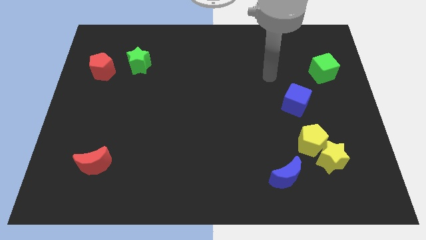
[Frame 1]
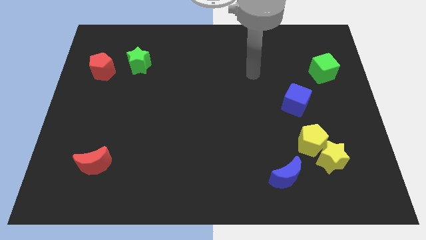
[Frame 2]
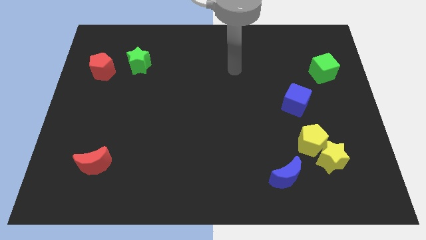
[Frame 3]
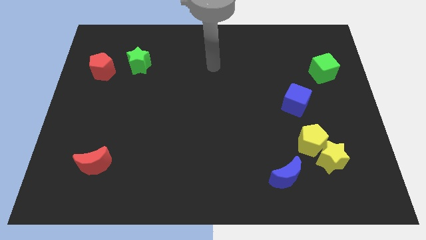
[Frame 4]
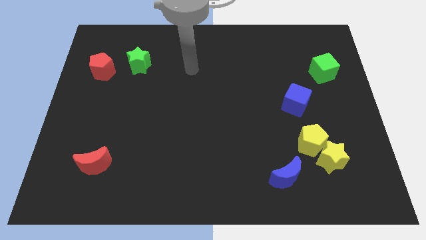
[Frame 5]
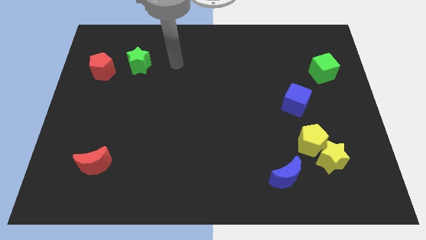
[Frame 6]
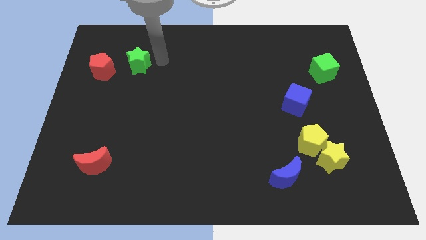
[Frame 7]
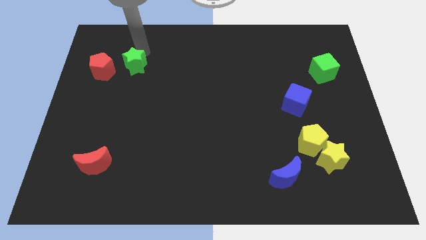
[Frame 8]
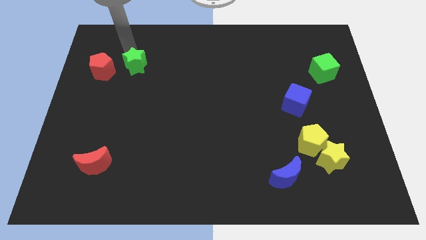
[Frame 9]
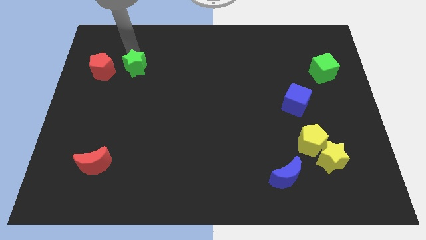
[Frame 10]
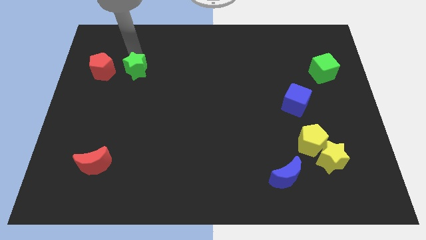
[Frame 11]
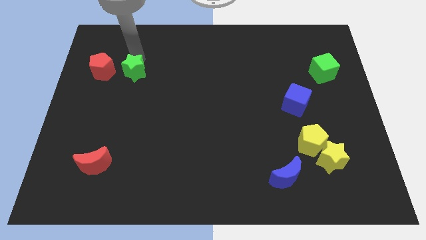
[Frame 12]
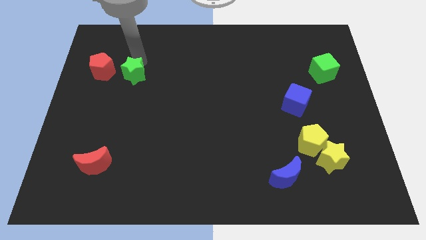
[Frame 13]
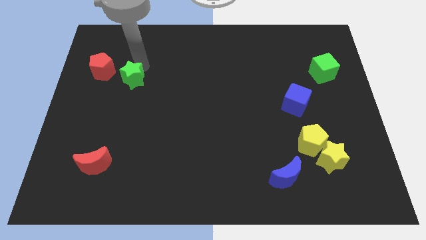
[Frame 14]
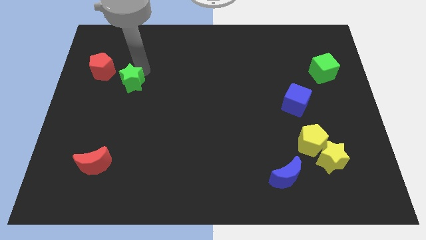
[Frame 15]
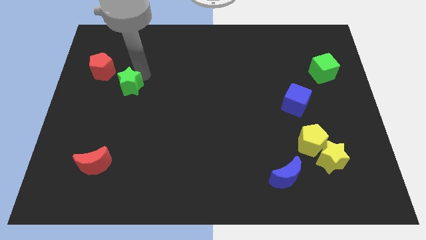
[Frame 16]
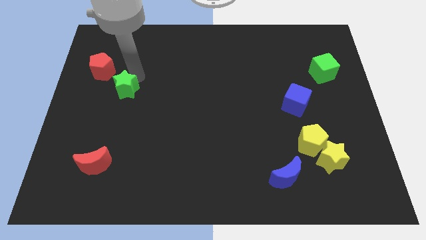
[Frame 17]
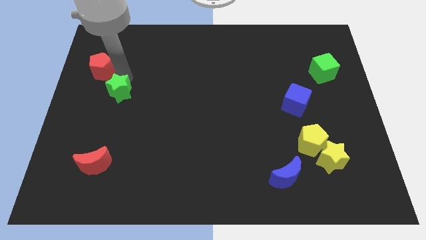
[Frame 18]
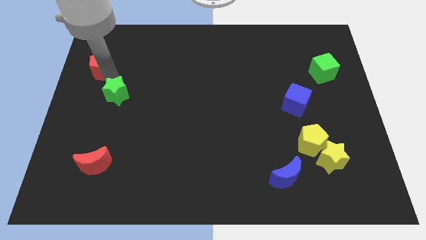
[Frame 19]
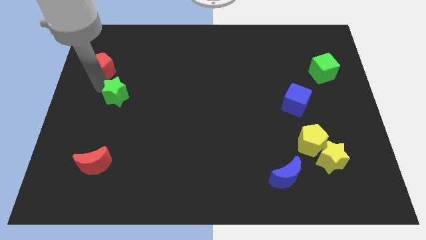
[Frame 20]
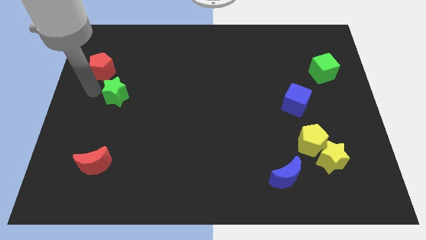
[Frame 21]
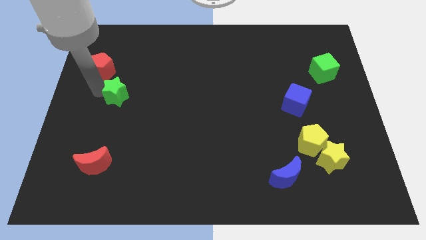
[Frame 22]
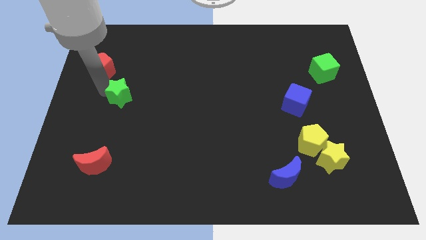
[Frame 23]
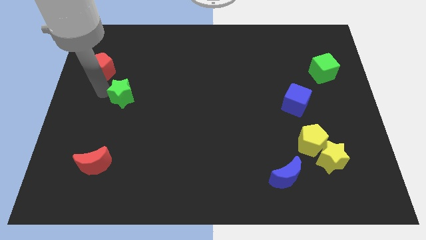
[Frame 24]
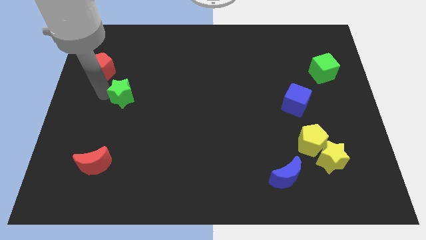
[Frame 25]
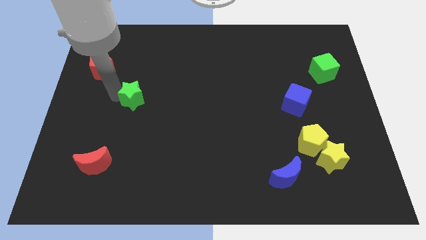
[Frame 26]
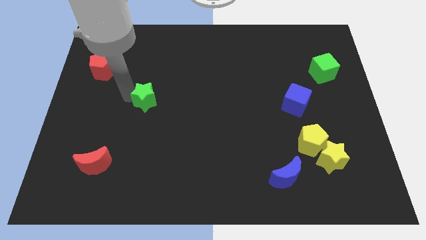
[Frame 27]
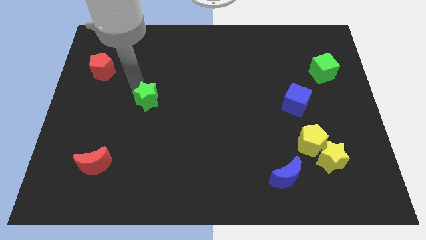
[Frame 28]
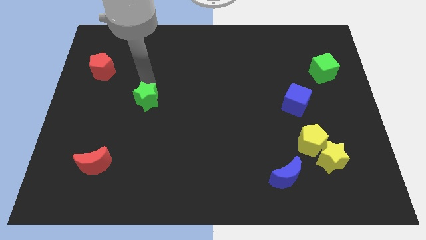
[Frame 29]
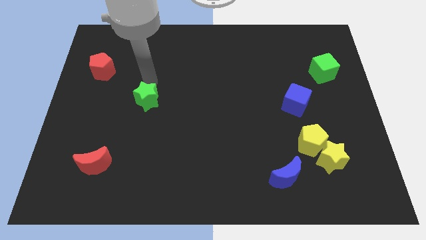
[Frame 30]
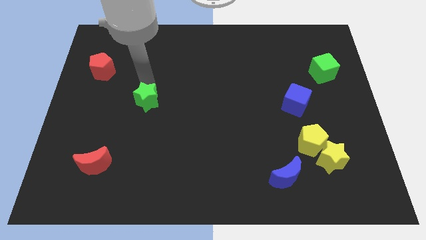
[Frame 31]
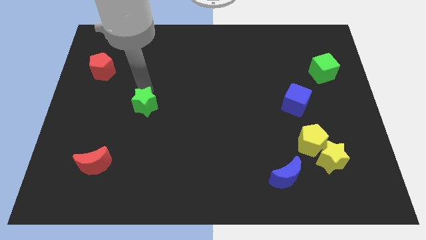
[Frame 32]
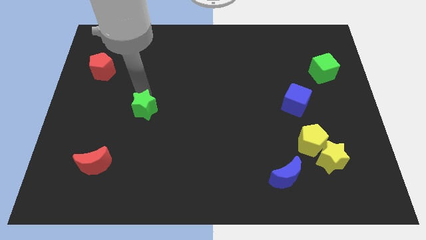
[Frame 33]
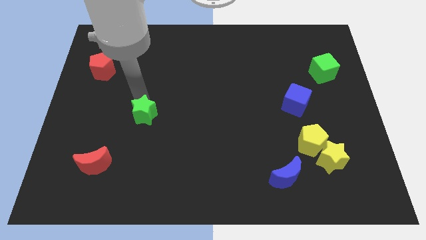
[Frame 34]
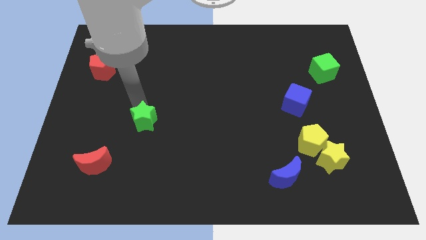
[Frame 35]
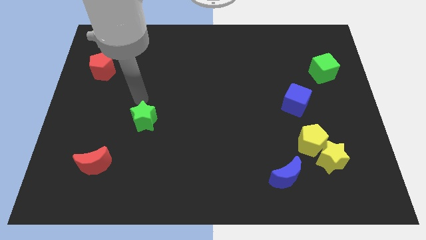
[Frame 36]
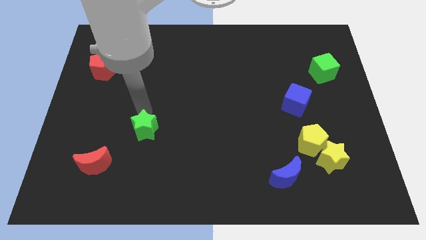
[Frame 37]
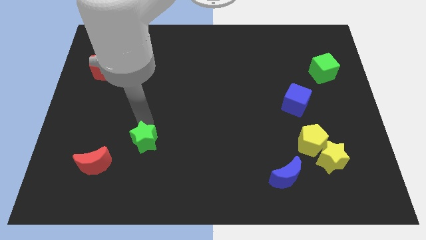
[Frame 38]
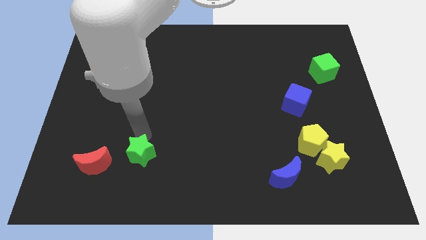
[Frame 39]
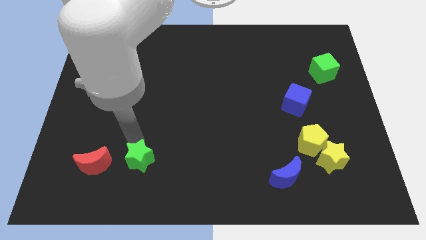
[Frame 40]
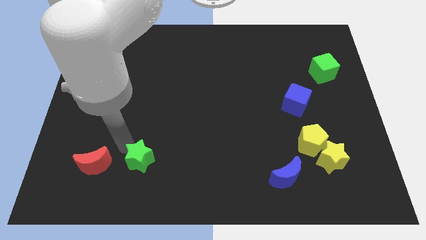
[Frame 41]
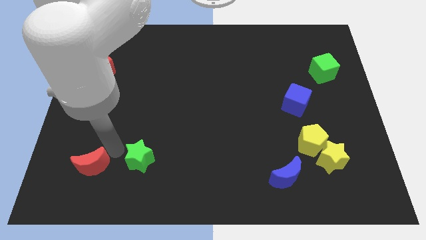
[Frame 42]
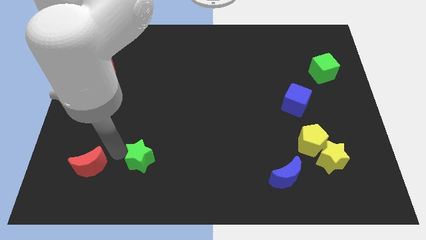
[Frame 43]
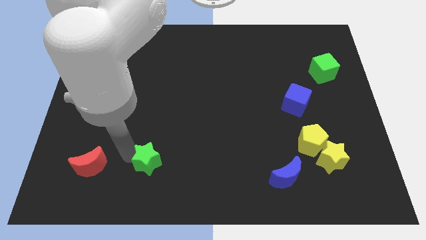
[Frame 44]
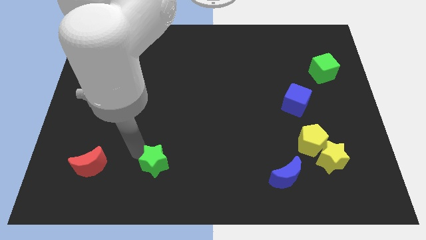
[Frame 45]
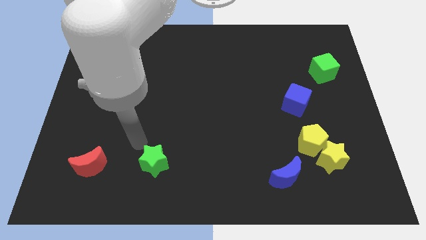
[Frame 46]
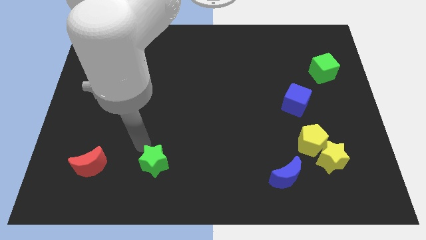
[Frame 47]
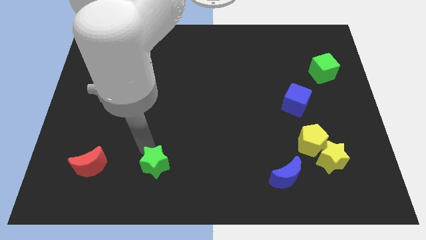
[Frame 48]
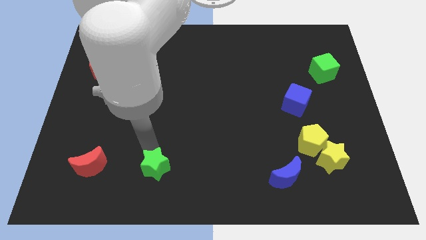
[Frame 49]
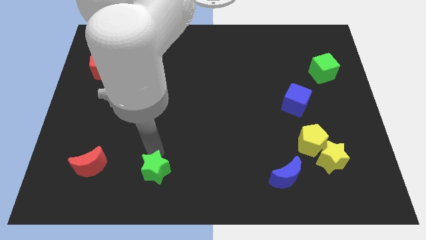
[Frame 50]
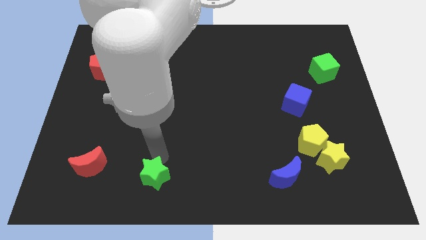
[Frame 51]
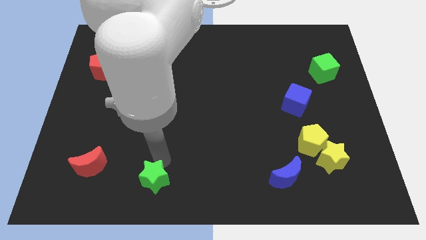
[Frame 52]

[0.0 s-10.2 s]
move the green star to the bottom

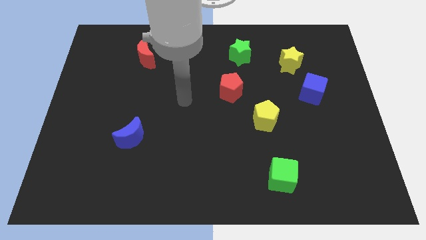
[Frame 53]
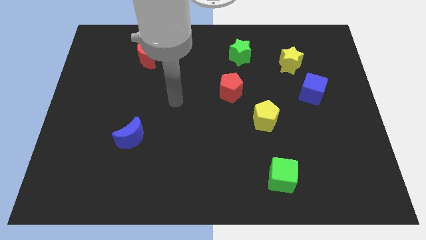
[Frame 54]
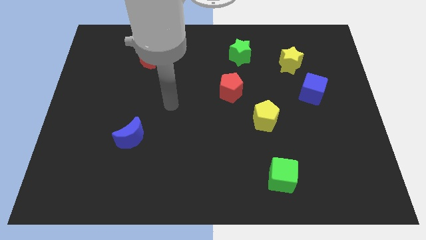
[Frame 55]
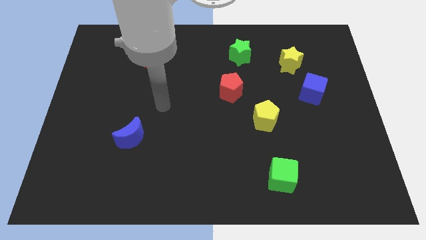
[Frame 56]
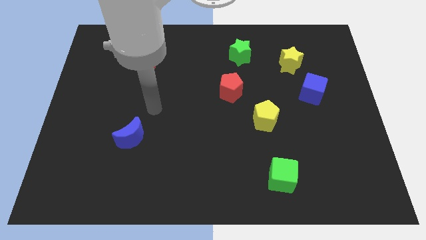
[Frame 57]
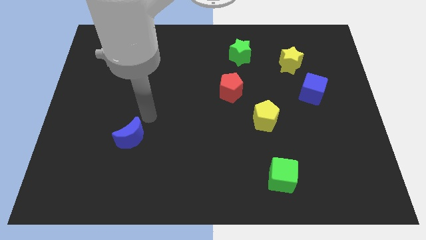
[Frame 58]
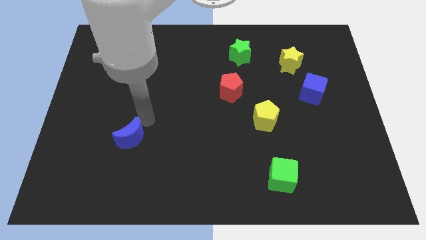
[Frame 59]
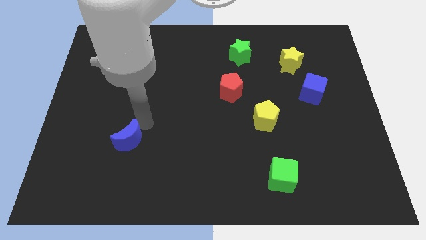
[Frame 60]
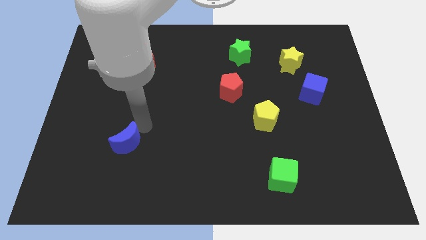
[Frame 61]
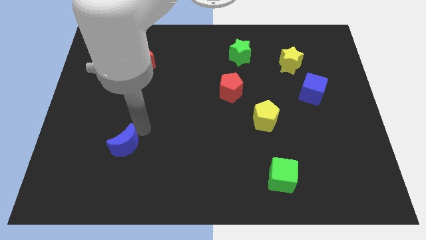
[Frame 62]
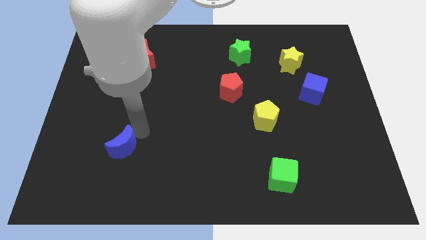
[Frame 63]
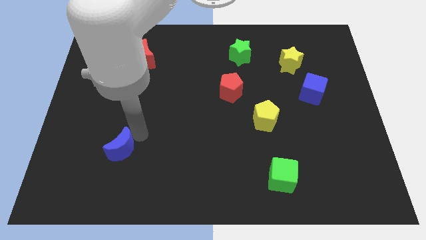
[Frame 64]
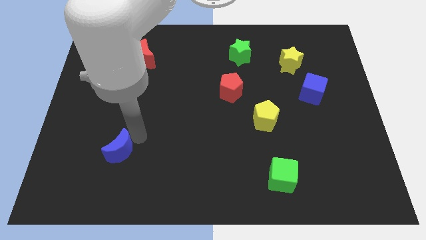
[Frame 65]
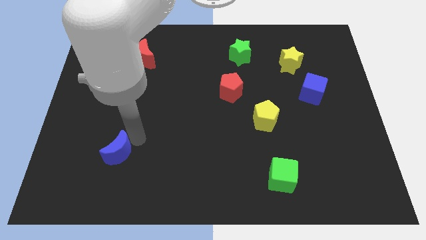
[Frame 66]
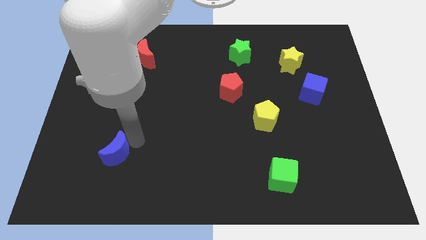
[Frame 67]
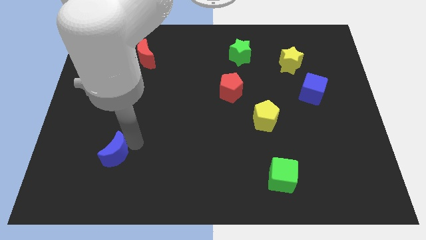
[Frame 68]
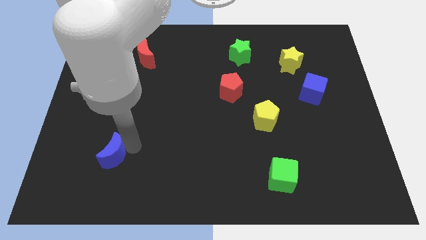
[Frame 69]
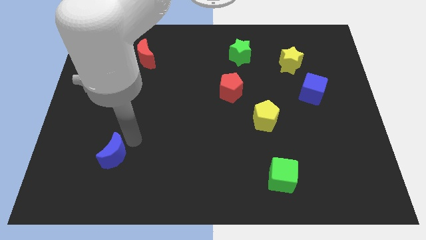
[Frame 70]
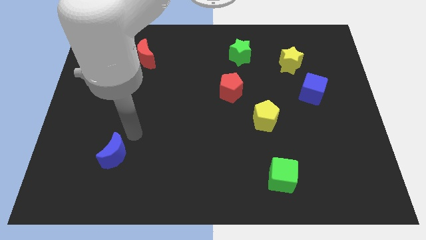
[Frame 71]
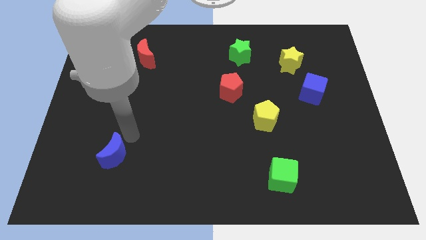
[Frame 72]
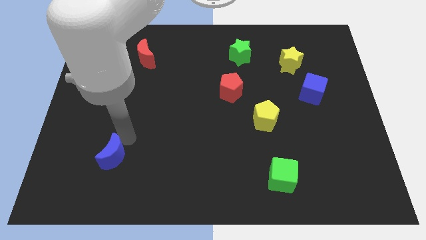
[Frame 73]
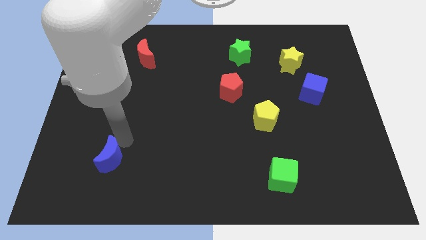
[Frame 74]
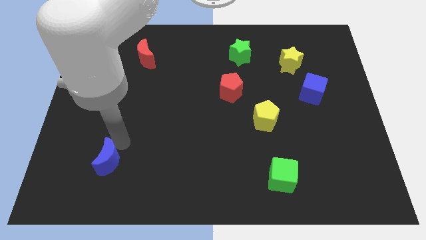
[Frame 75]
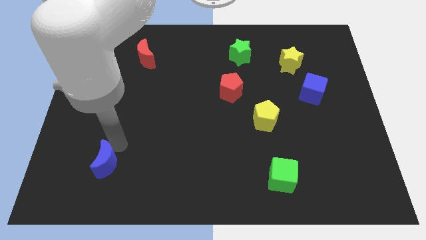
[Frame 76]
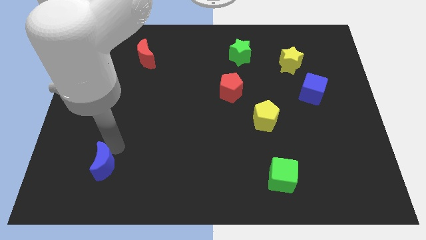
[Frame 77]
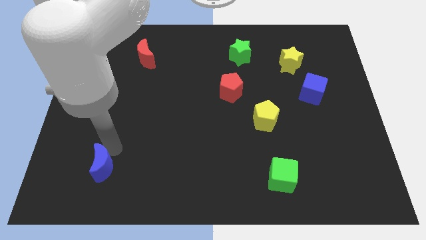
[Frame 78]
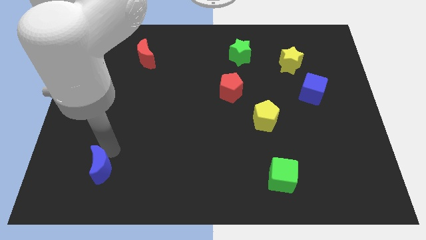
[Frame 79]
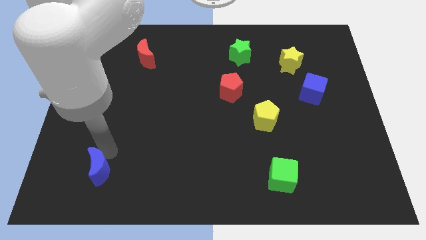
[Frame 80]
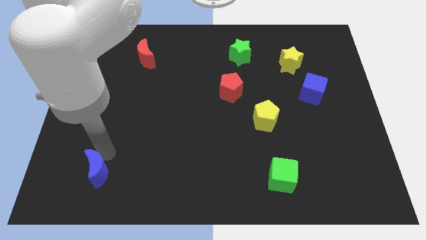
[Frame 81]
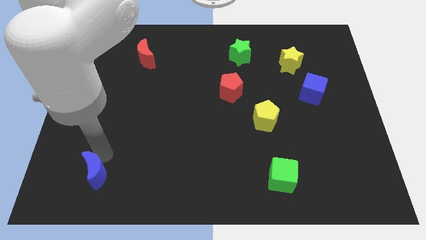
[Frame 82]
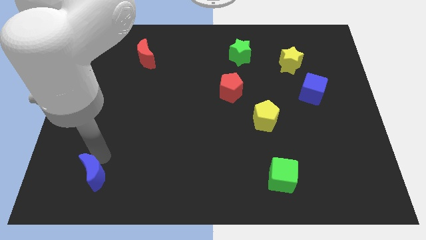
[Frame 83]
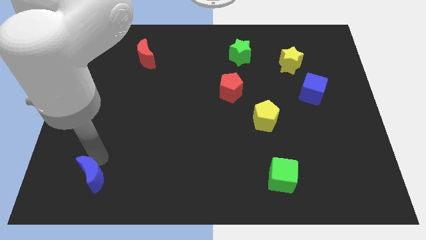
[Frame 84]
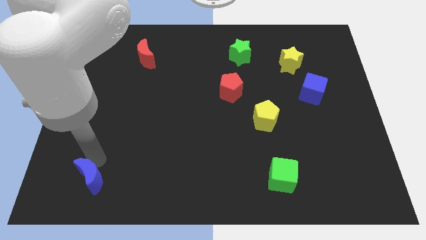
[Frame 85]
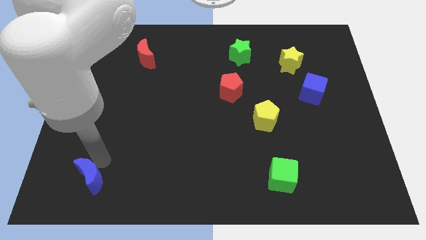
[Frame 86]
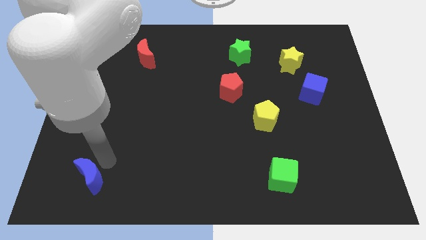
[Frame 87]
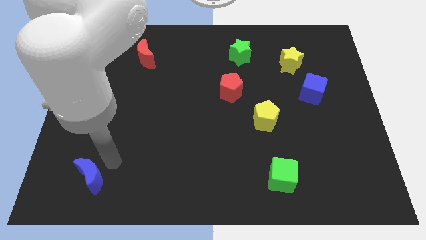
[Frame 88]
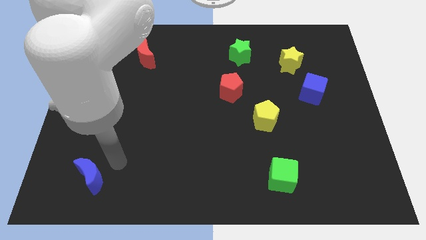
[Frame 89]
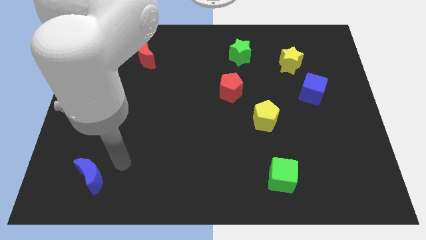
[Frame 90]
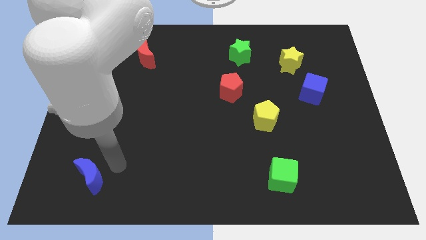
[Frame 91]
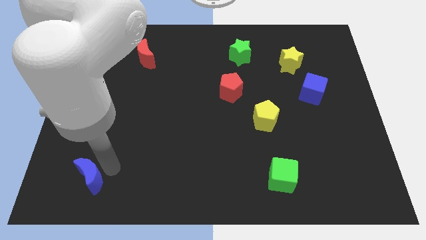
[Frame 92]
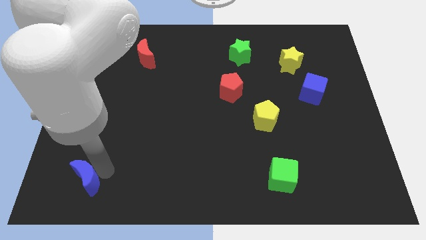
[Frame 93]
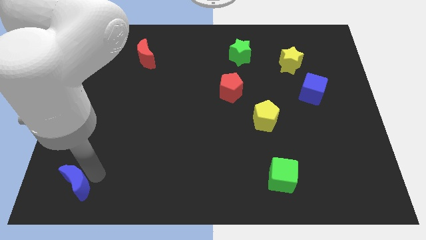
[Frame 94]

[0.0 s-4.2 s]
push the blue moon to the bottom left
